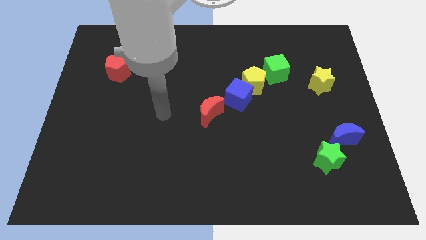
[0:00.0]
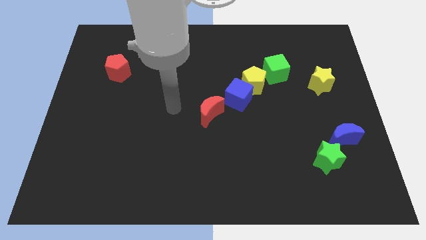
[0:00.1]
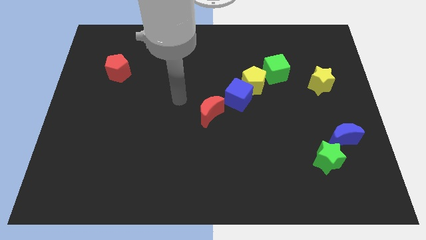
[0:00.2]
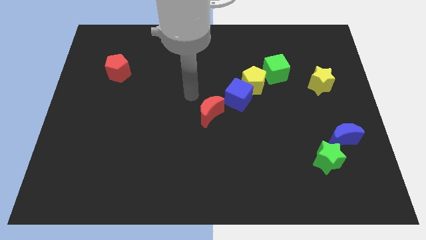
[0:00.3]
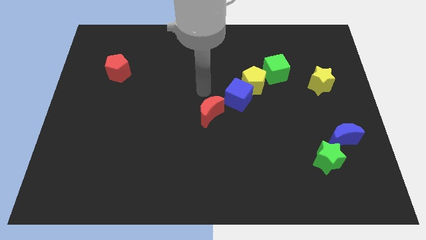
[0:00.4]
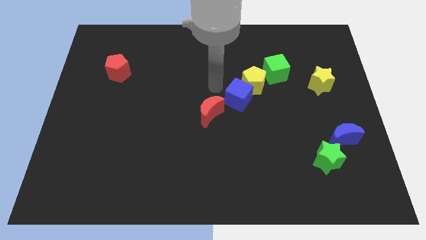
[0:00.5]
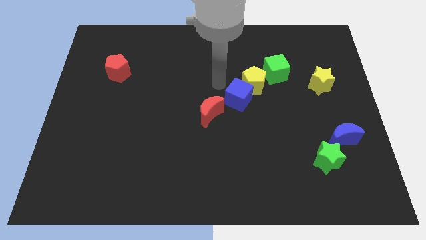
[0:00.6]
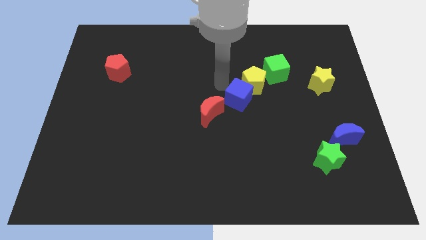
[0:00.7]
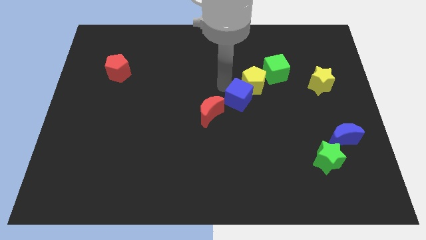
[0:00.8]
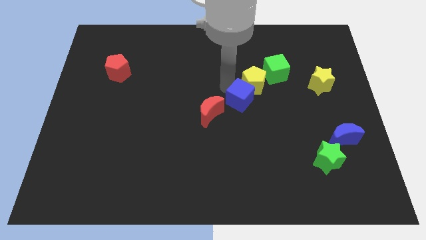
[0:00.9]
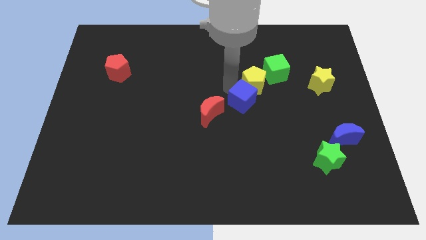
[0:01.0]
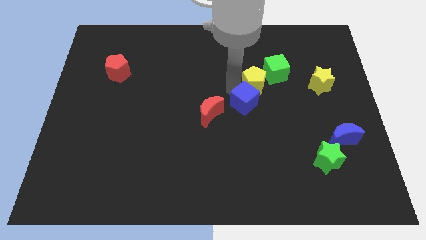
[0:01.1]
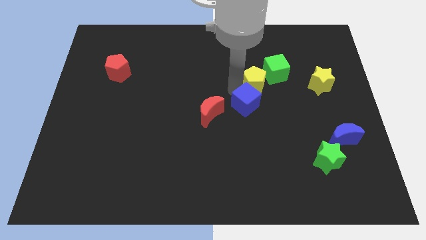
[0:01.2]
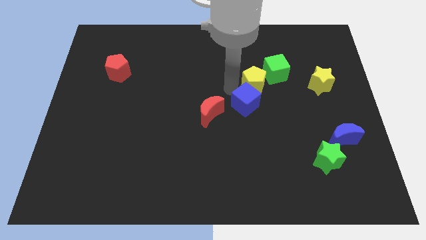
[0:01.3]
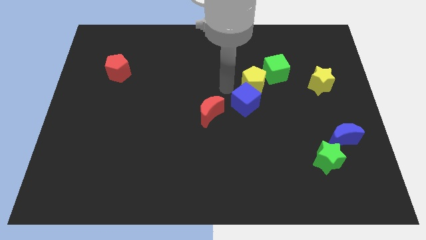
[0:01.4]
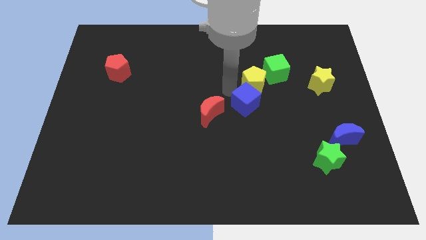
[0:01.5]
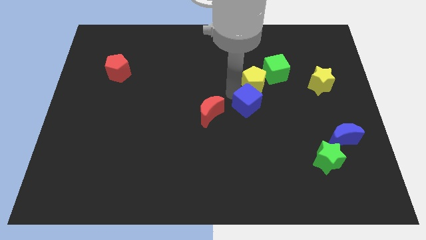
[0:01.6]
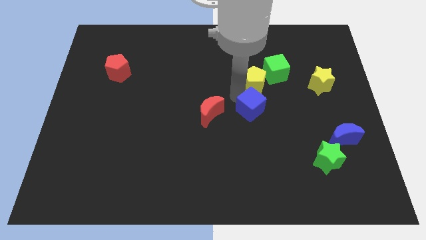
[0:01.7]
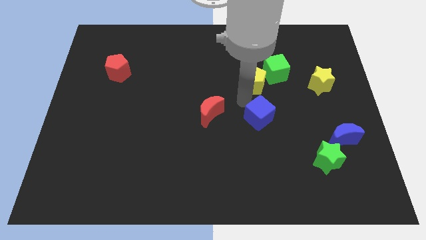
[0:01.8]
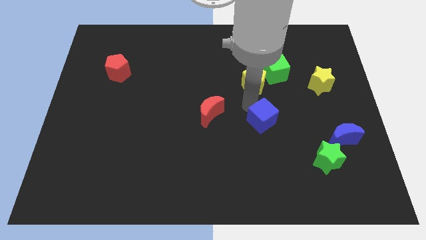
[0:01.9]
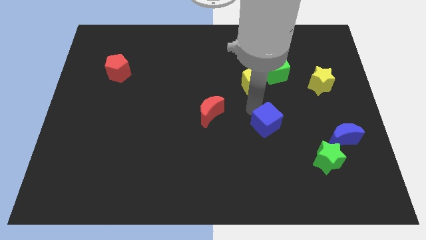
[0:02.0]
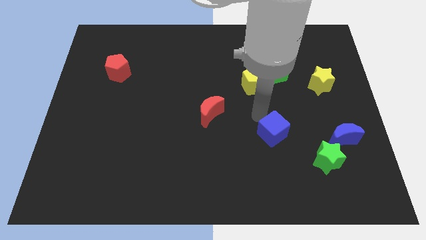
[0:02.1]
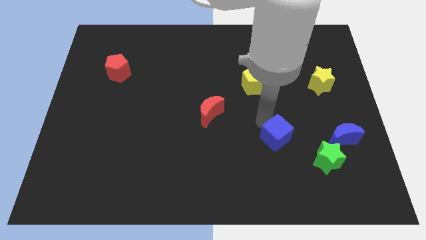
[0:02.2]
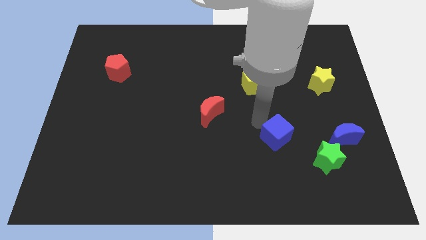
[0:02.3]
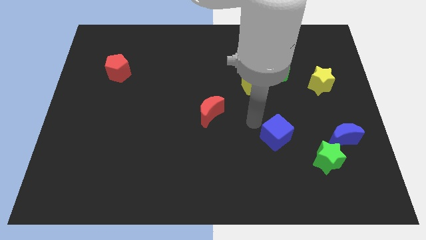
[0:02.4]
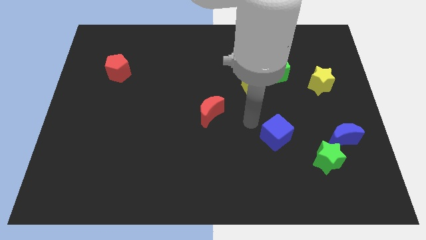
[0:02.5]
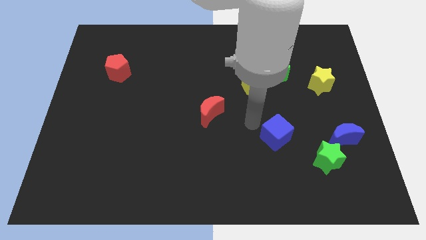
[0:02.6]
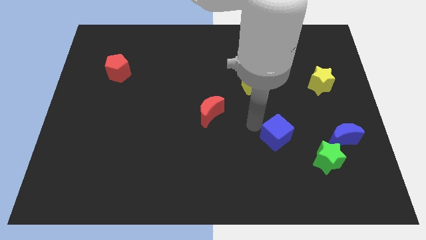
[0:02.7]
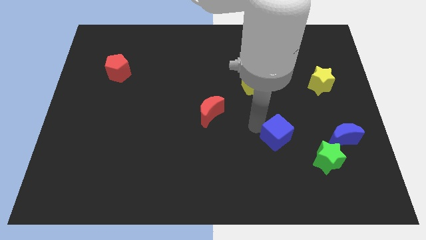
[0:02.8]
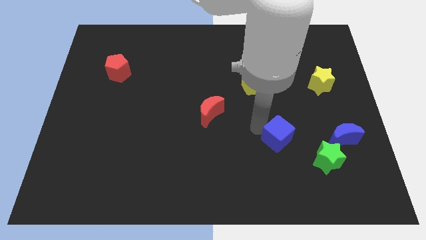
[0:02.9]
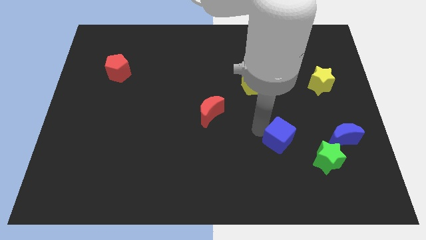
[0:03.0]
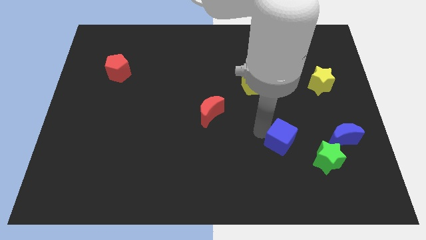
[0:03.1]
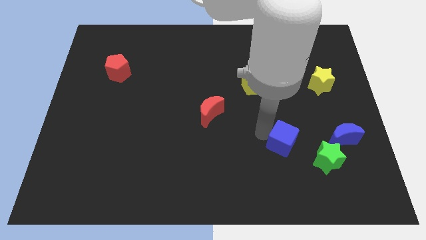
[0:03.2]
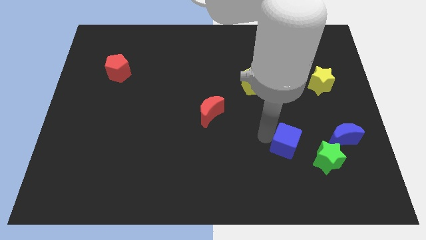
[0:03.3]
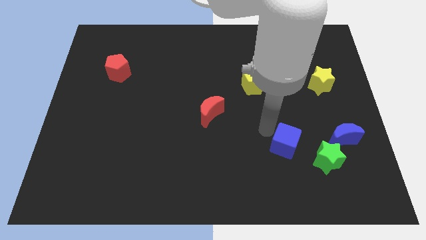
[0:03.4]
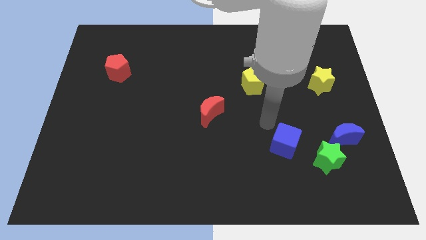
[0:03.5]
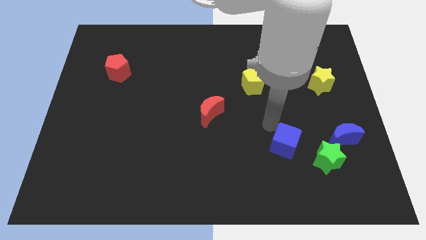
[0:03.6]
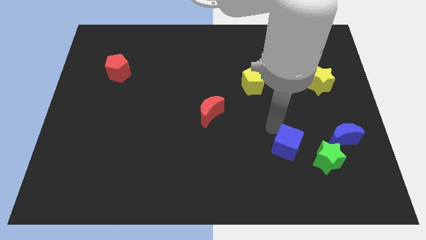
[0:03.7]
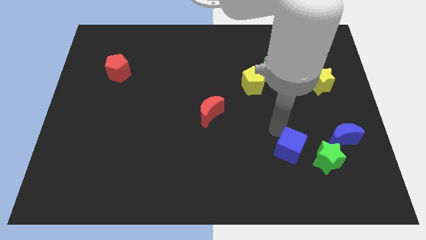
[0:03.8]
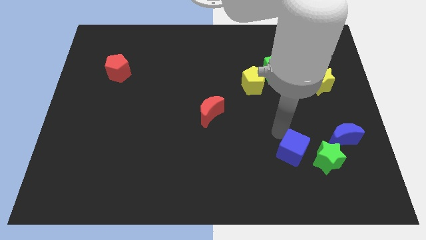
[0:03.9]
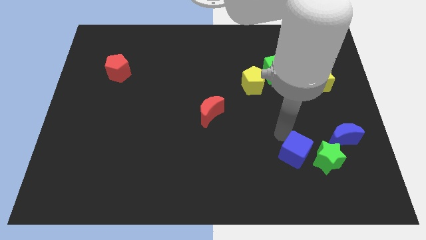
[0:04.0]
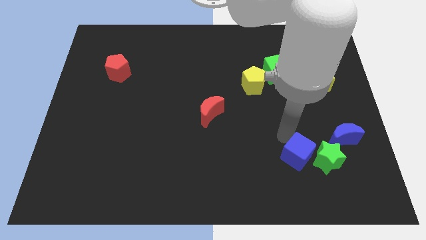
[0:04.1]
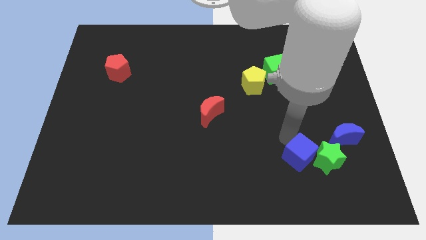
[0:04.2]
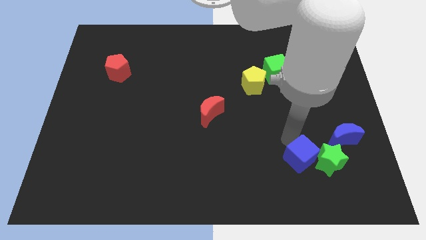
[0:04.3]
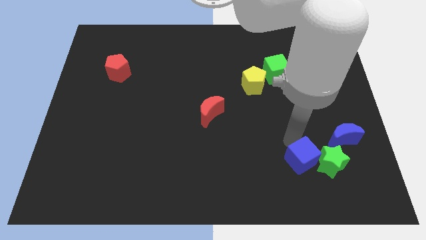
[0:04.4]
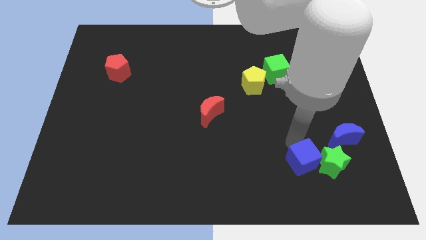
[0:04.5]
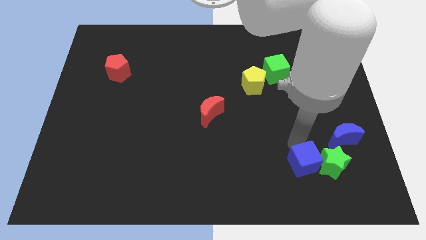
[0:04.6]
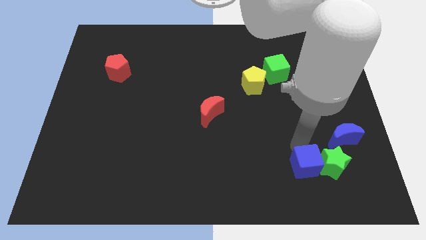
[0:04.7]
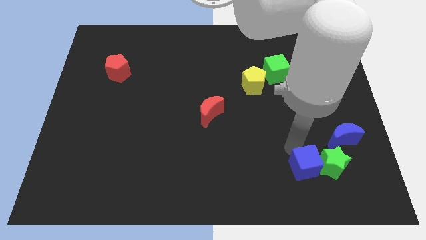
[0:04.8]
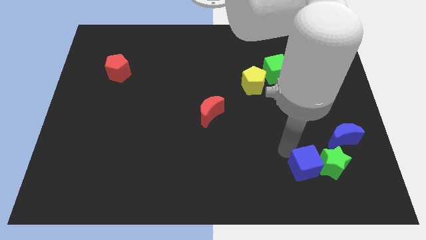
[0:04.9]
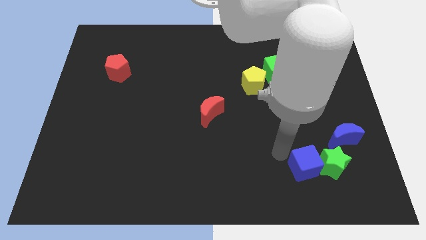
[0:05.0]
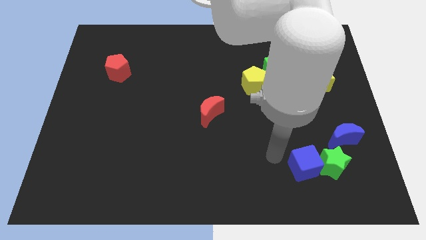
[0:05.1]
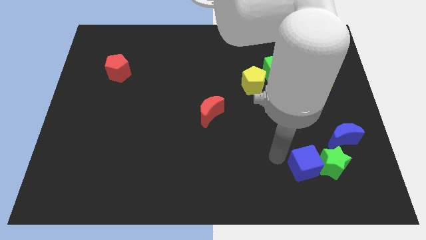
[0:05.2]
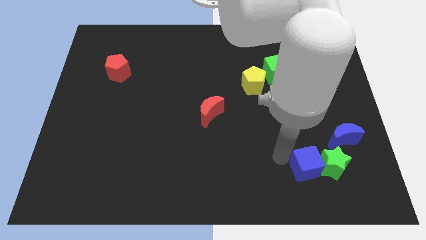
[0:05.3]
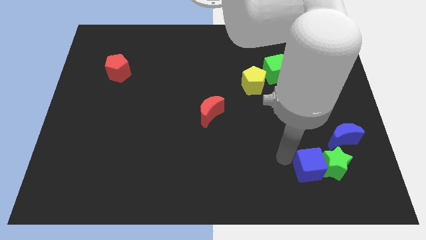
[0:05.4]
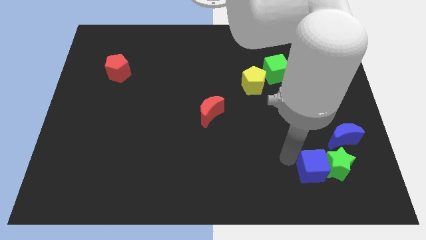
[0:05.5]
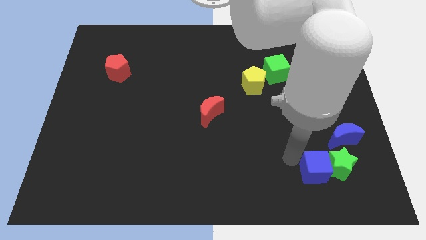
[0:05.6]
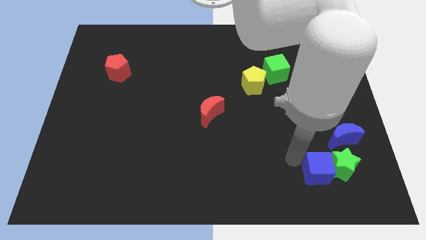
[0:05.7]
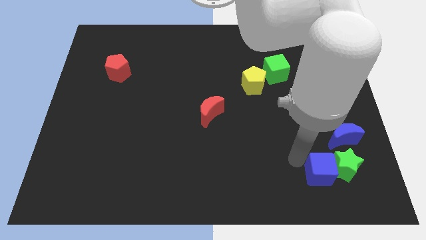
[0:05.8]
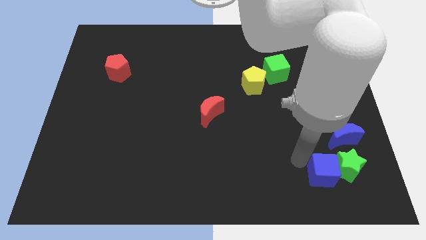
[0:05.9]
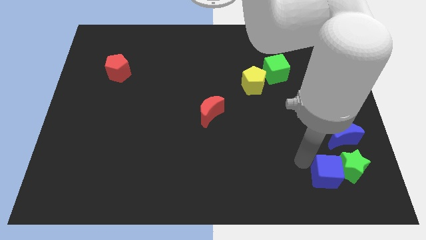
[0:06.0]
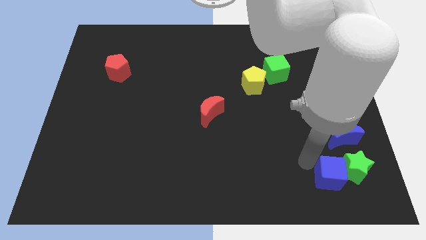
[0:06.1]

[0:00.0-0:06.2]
move the blue cube below the blue moon

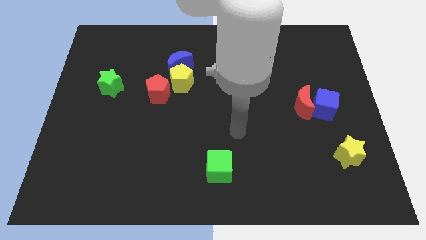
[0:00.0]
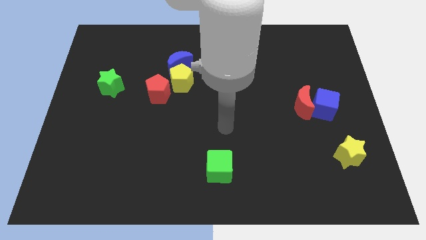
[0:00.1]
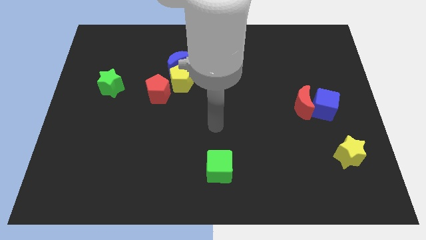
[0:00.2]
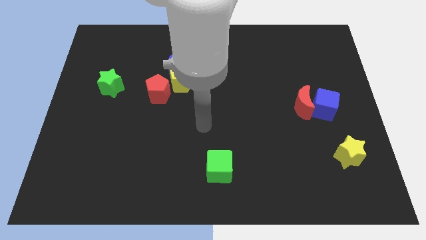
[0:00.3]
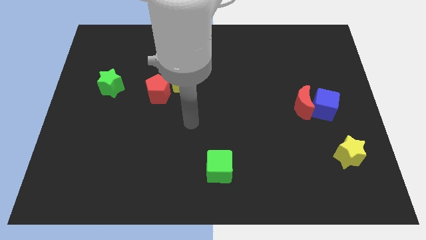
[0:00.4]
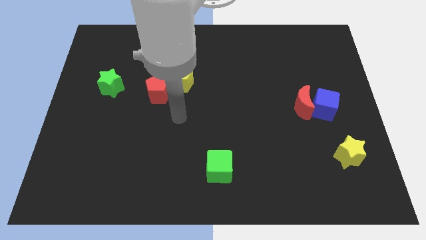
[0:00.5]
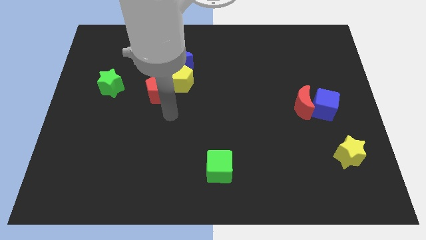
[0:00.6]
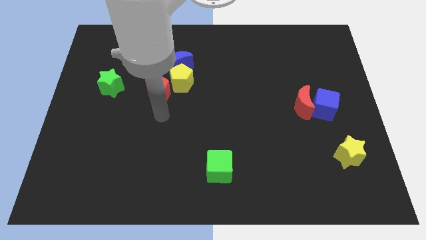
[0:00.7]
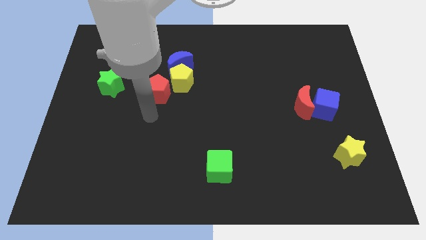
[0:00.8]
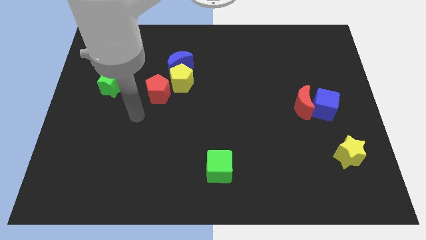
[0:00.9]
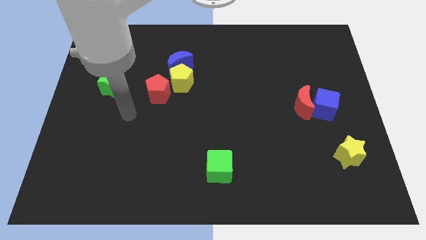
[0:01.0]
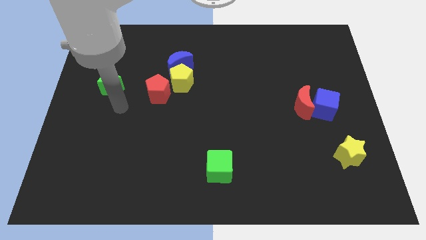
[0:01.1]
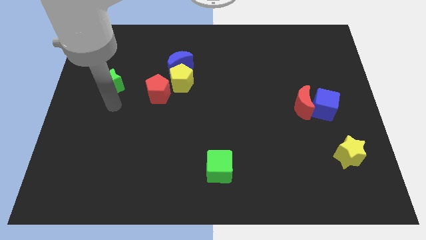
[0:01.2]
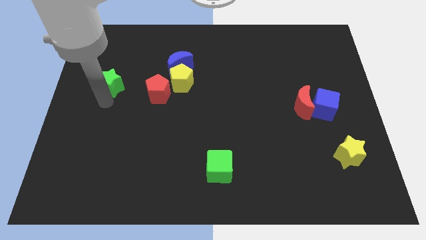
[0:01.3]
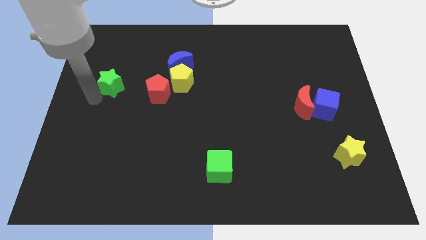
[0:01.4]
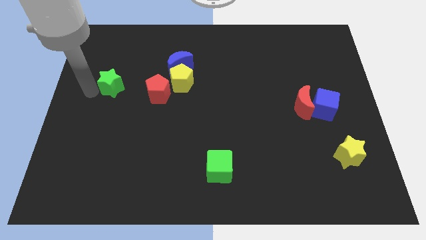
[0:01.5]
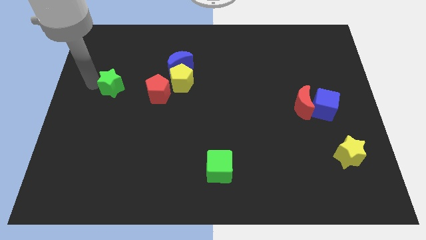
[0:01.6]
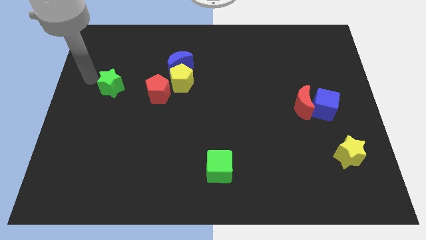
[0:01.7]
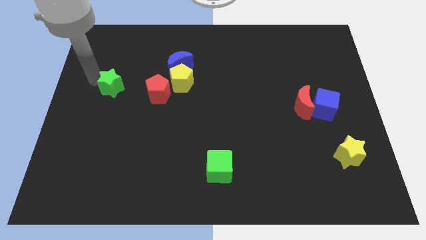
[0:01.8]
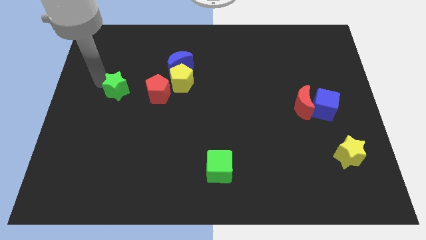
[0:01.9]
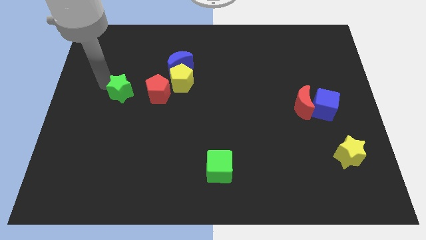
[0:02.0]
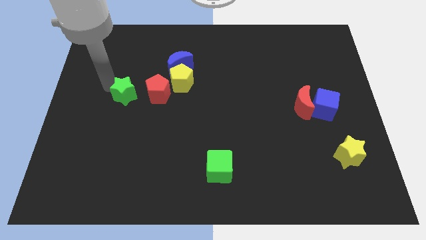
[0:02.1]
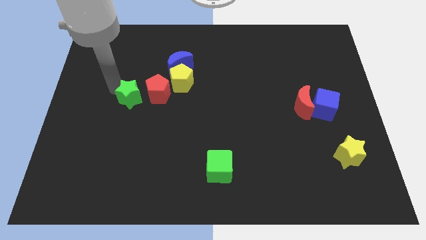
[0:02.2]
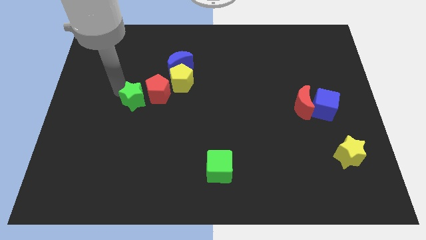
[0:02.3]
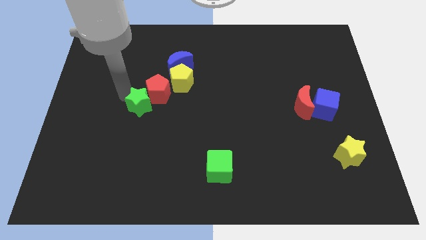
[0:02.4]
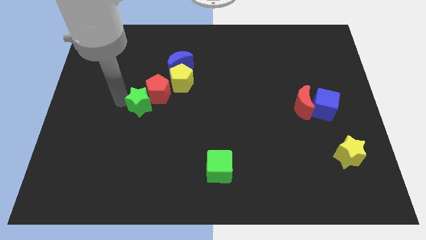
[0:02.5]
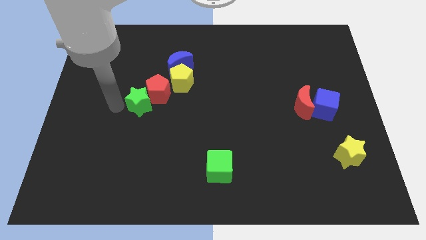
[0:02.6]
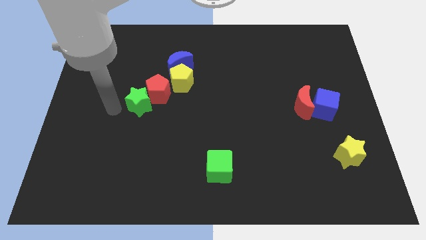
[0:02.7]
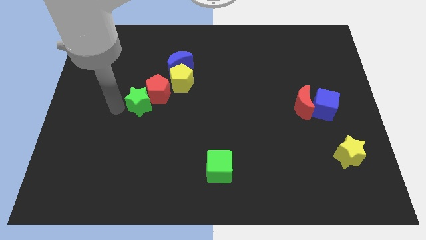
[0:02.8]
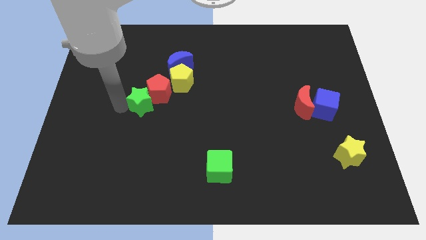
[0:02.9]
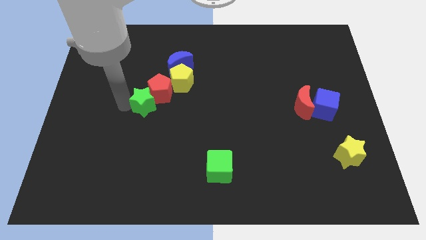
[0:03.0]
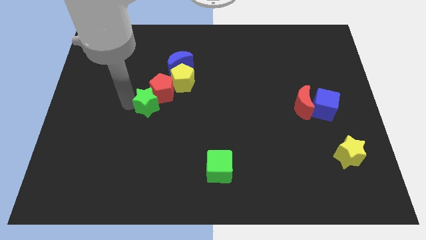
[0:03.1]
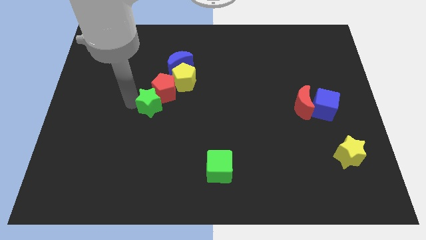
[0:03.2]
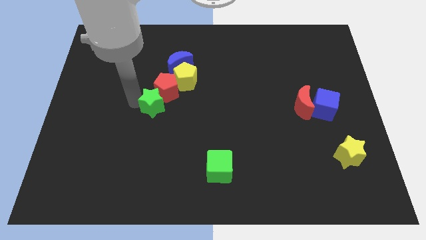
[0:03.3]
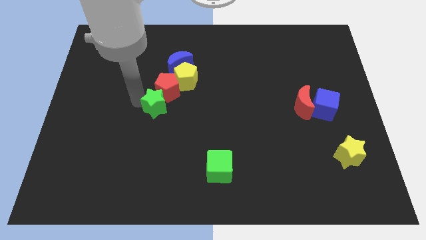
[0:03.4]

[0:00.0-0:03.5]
slide the green star to the bottom of the blue moon
